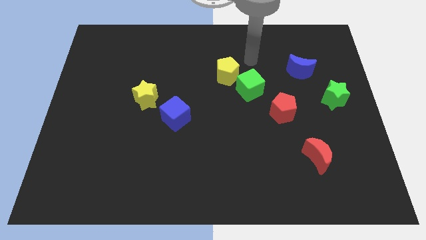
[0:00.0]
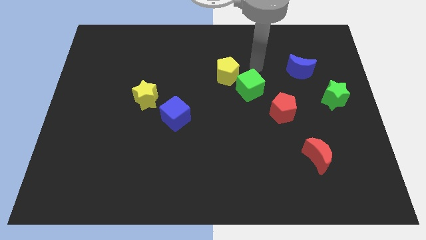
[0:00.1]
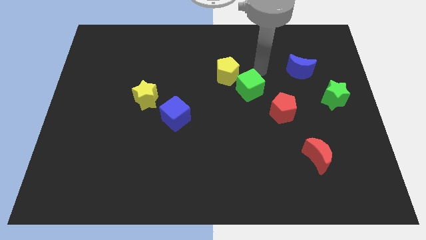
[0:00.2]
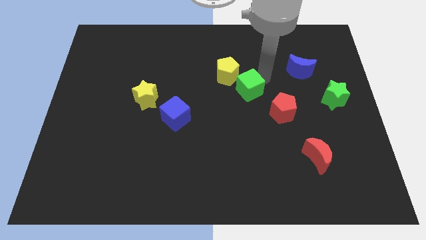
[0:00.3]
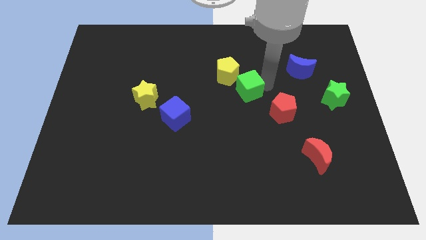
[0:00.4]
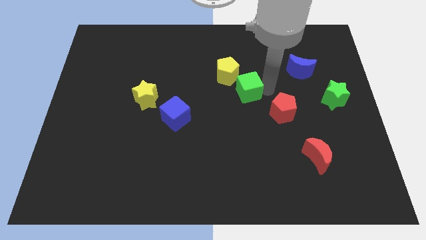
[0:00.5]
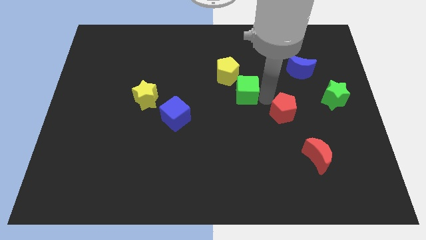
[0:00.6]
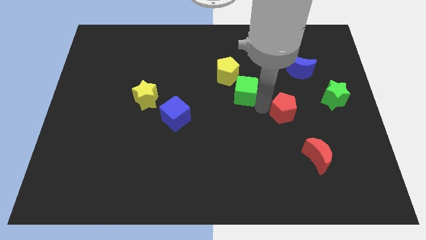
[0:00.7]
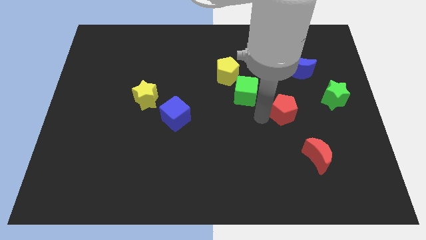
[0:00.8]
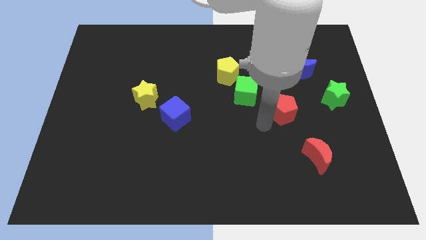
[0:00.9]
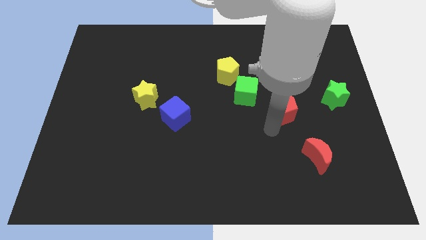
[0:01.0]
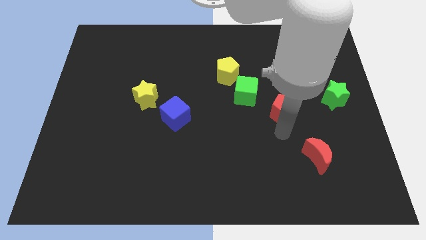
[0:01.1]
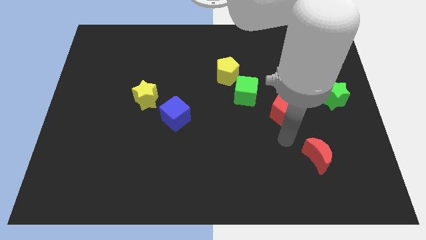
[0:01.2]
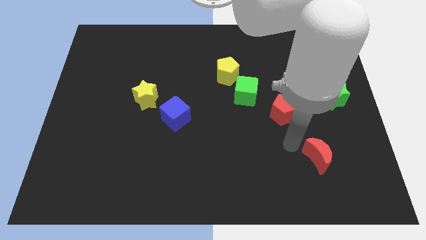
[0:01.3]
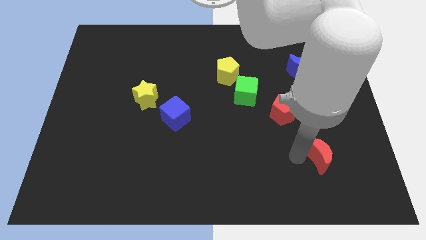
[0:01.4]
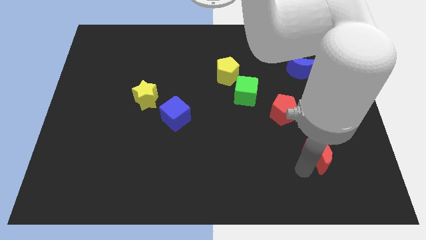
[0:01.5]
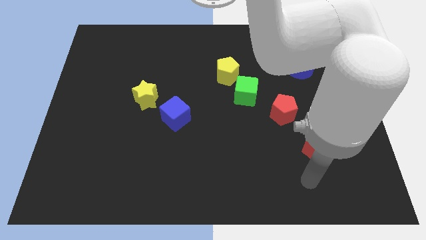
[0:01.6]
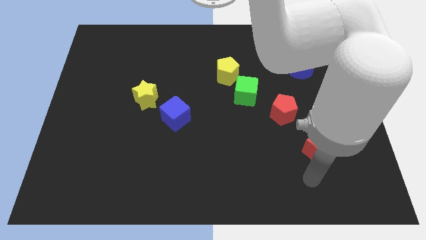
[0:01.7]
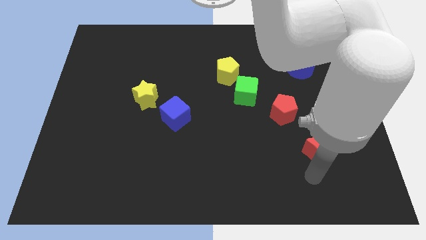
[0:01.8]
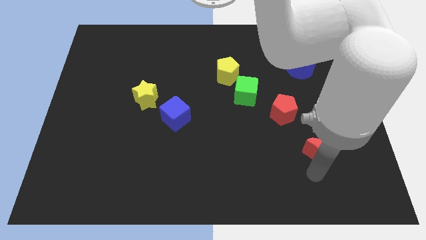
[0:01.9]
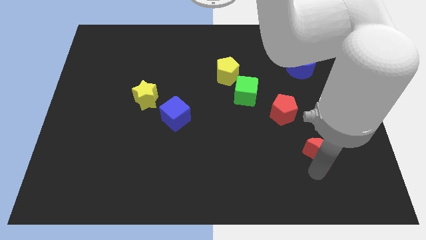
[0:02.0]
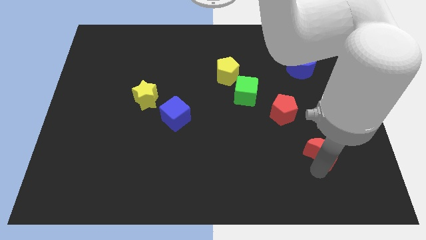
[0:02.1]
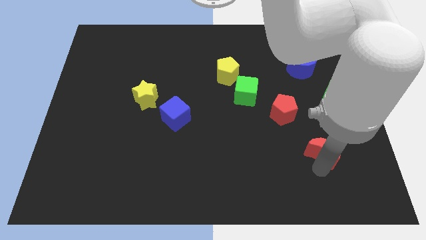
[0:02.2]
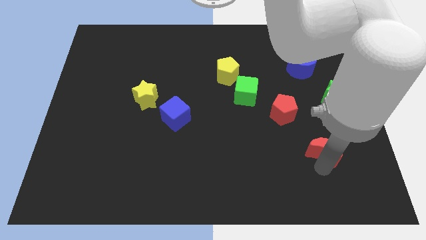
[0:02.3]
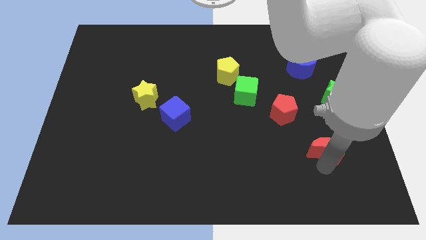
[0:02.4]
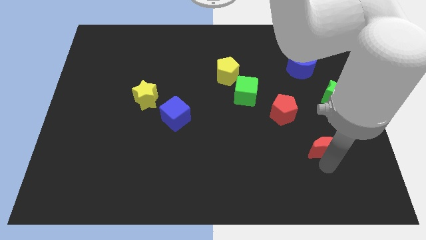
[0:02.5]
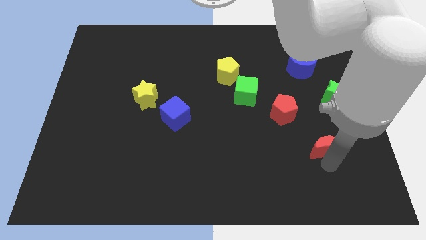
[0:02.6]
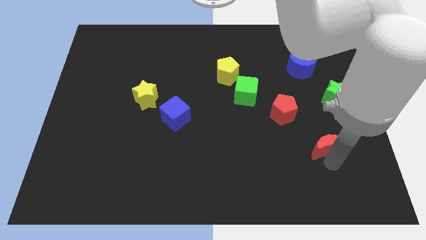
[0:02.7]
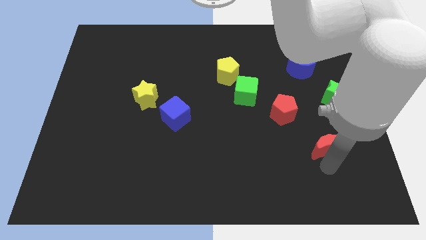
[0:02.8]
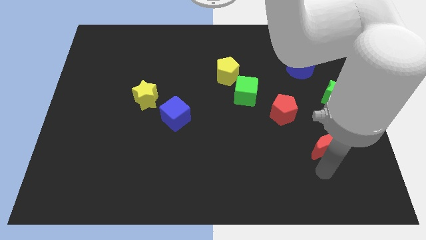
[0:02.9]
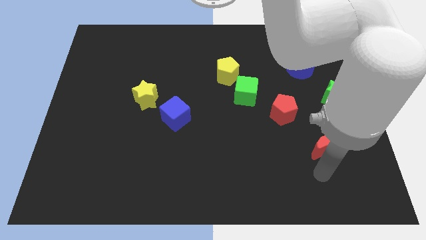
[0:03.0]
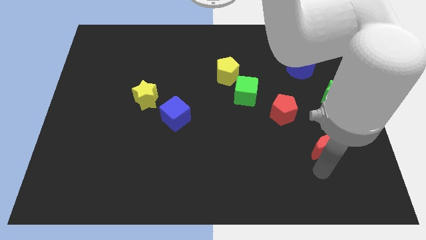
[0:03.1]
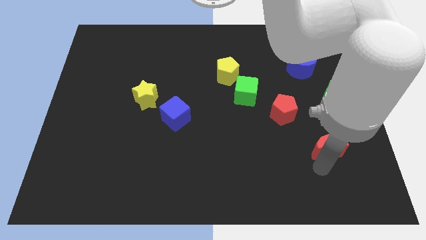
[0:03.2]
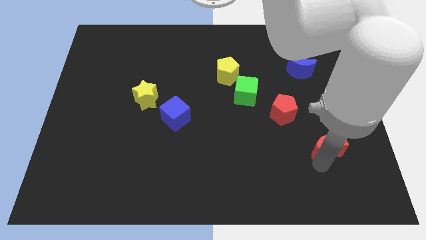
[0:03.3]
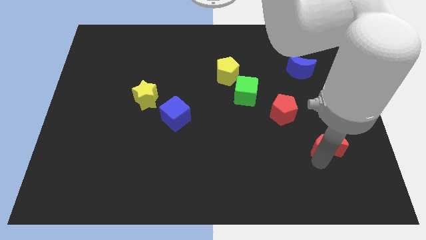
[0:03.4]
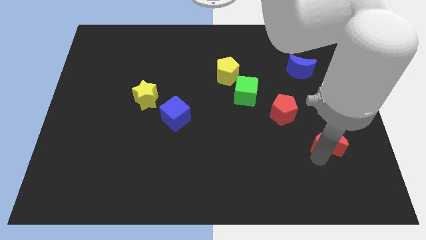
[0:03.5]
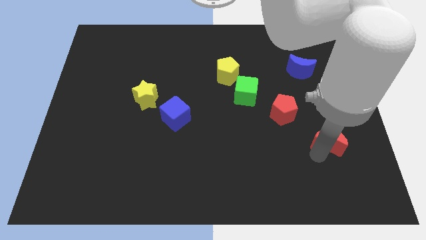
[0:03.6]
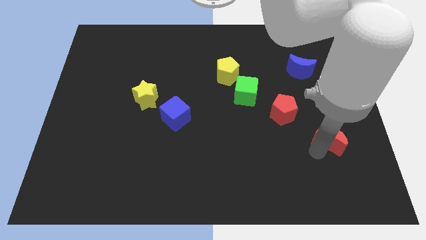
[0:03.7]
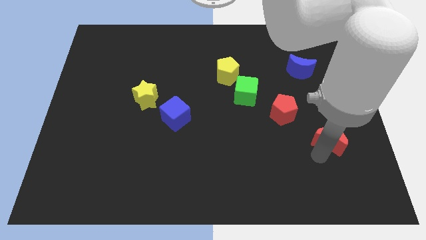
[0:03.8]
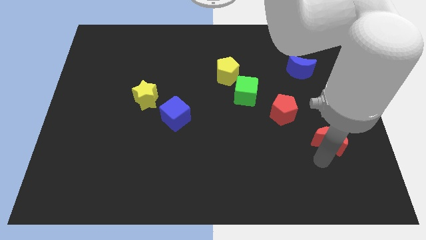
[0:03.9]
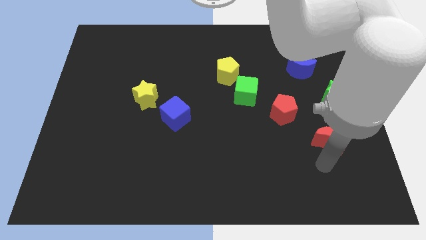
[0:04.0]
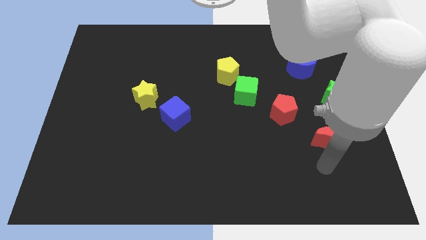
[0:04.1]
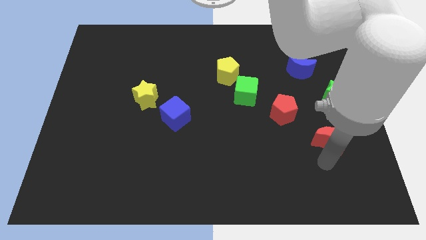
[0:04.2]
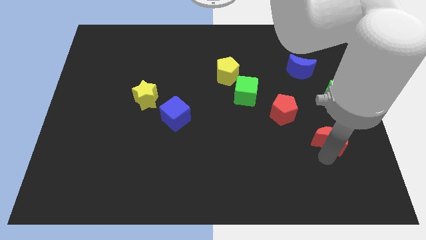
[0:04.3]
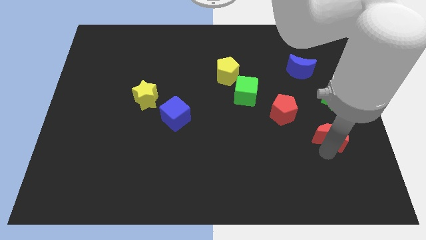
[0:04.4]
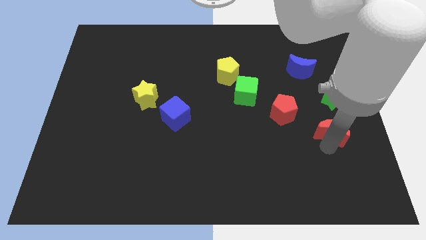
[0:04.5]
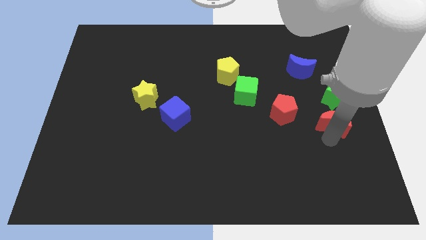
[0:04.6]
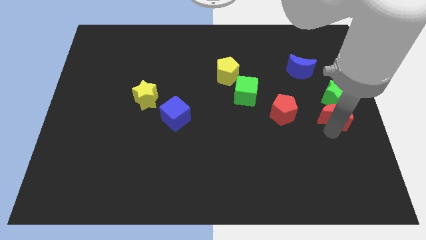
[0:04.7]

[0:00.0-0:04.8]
move the red moon next to the green star

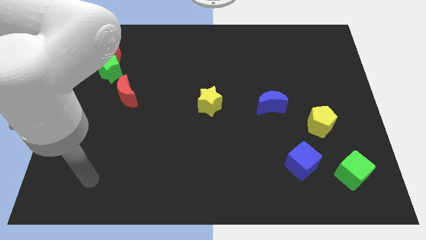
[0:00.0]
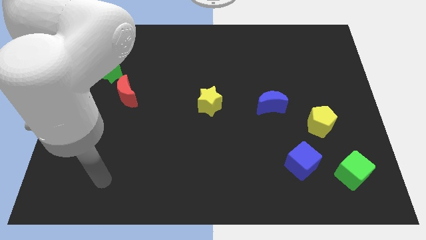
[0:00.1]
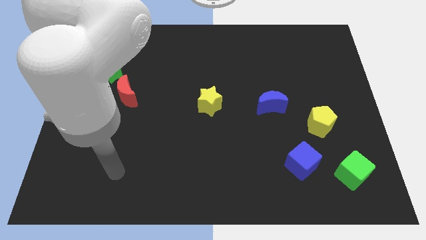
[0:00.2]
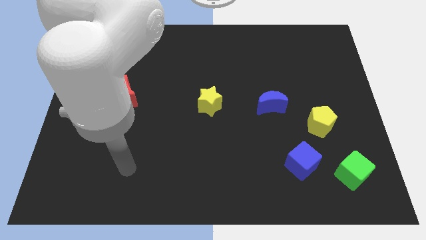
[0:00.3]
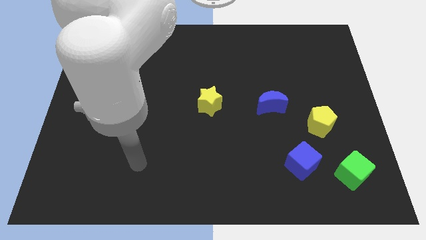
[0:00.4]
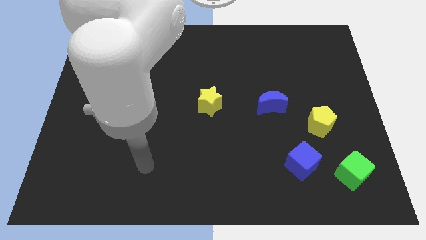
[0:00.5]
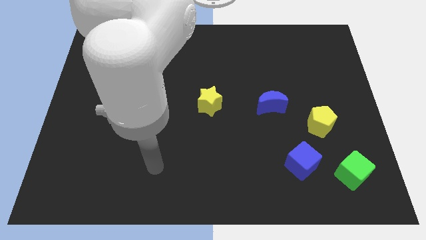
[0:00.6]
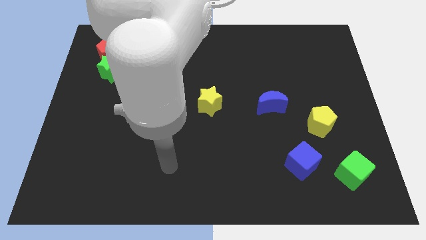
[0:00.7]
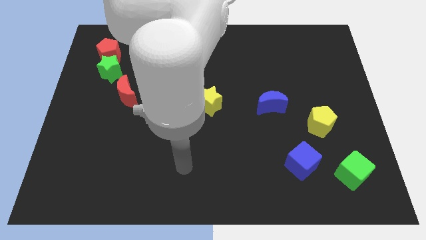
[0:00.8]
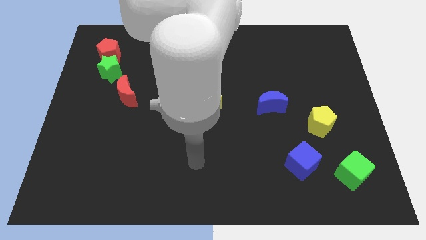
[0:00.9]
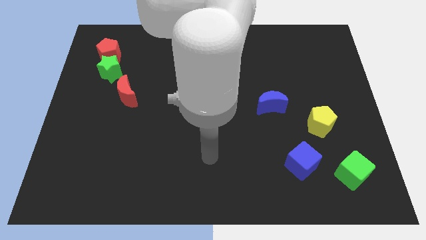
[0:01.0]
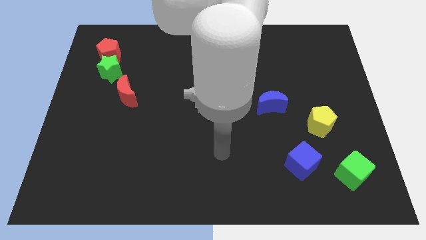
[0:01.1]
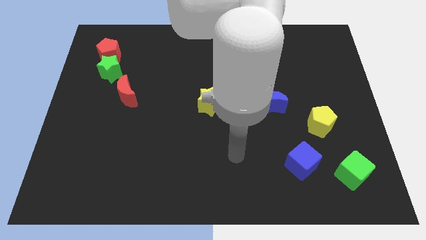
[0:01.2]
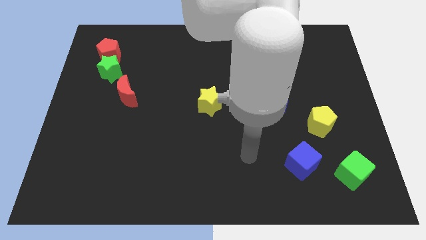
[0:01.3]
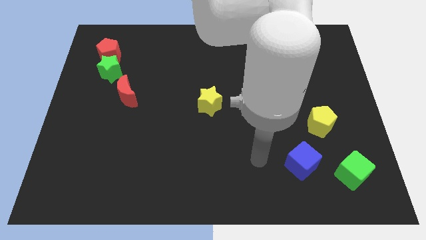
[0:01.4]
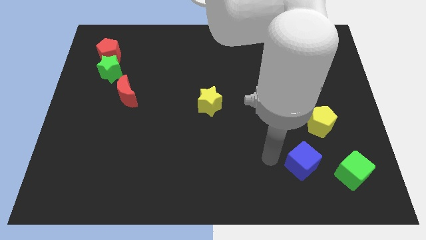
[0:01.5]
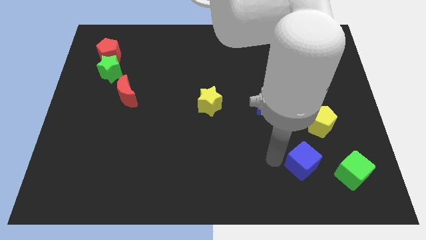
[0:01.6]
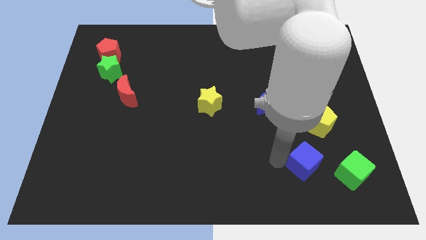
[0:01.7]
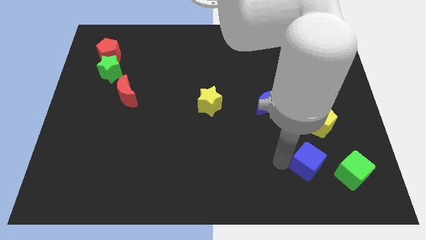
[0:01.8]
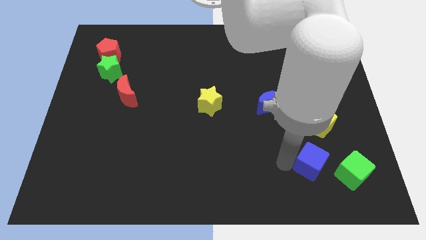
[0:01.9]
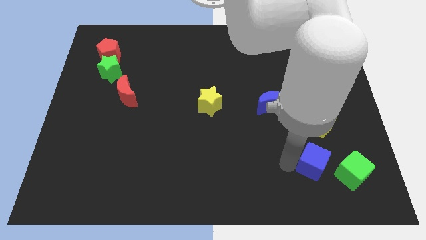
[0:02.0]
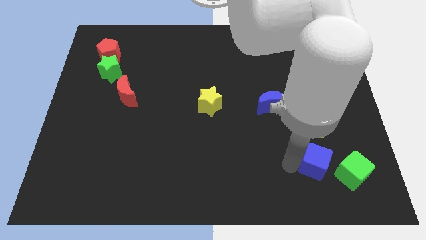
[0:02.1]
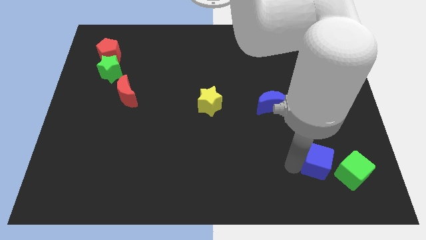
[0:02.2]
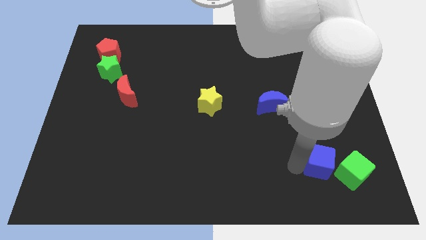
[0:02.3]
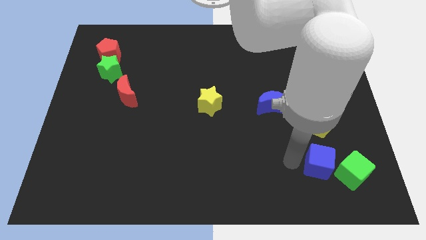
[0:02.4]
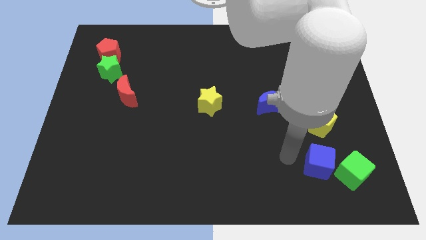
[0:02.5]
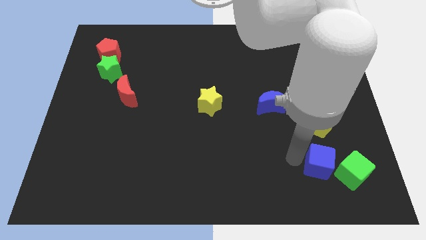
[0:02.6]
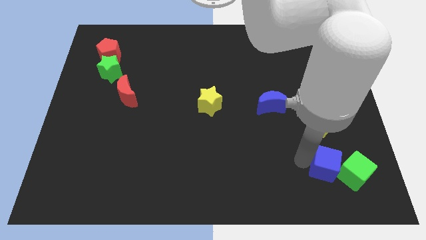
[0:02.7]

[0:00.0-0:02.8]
move the blue cube to the green cube

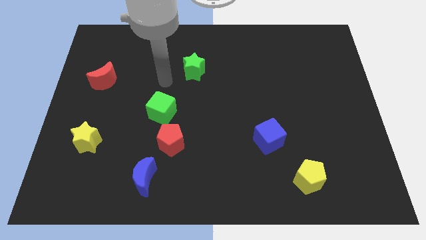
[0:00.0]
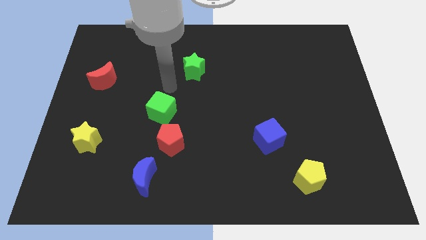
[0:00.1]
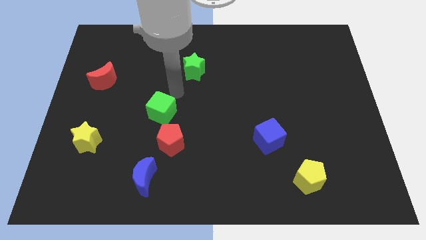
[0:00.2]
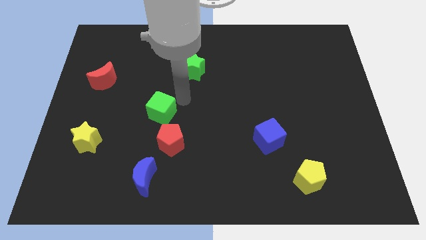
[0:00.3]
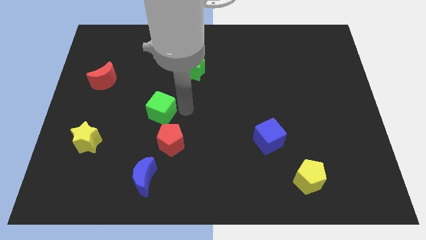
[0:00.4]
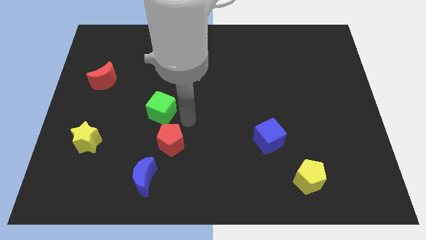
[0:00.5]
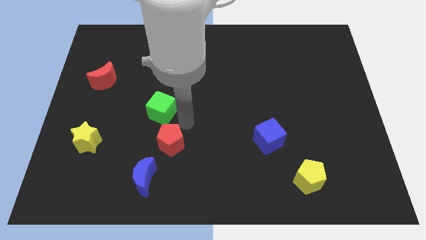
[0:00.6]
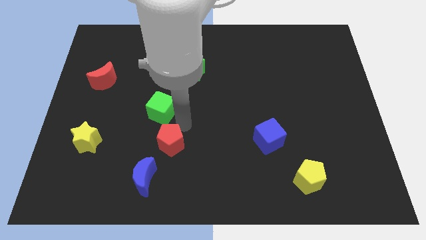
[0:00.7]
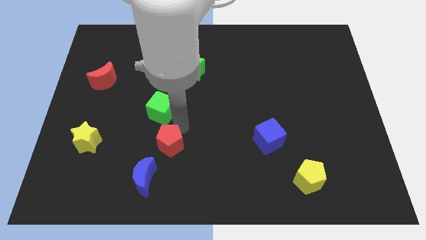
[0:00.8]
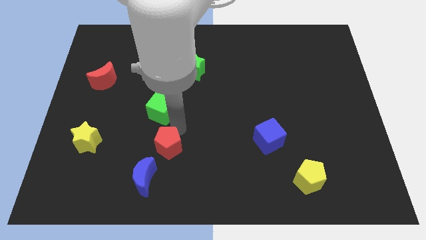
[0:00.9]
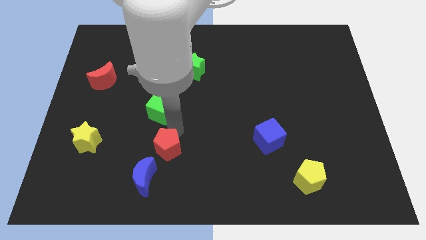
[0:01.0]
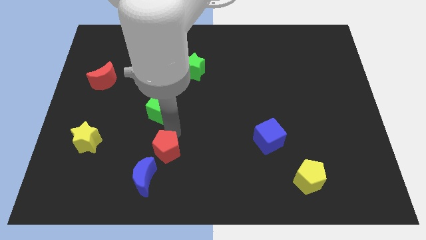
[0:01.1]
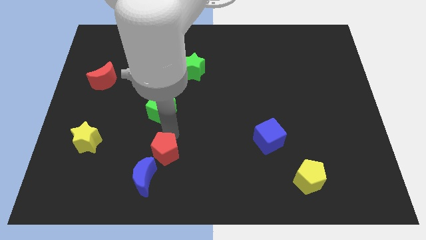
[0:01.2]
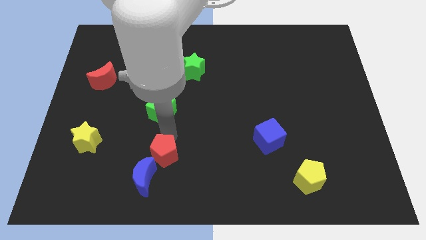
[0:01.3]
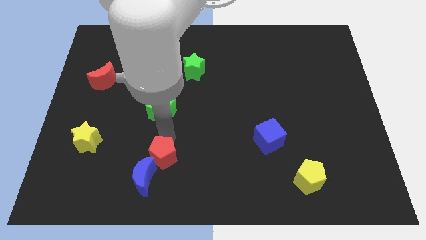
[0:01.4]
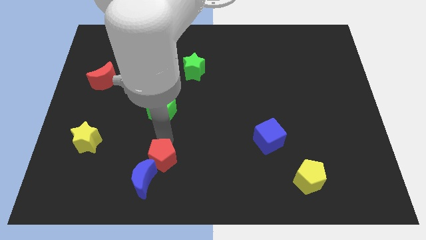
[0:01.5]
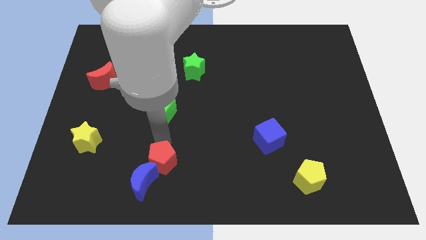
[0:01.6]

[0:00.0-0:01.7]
slide the red pentagon close to the blue moon
